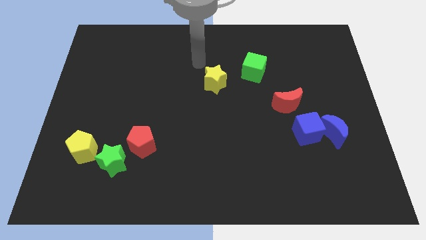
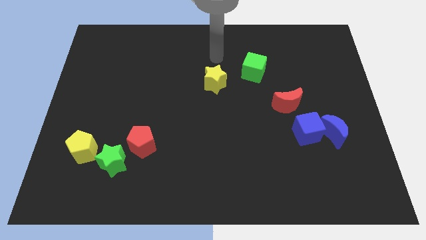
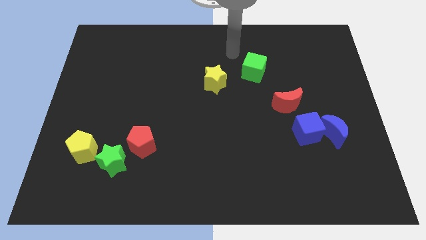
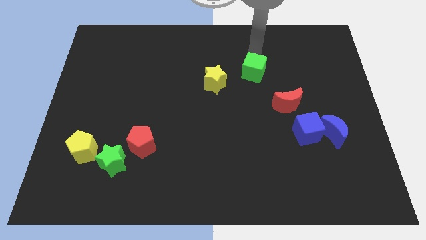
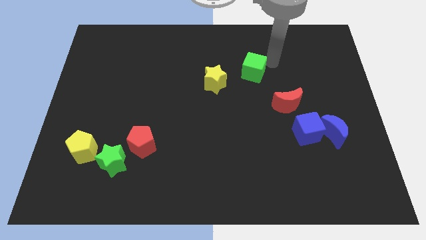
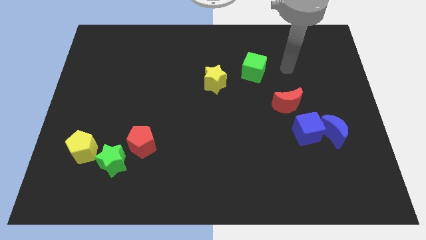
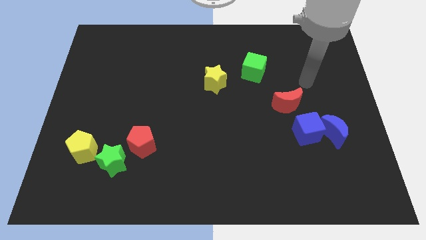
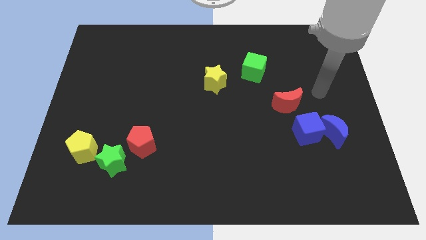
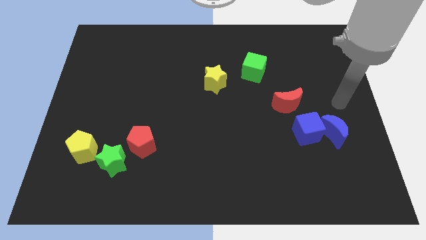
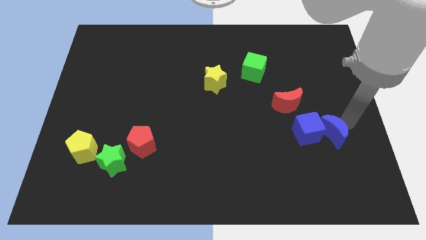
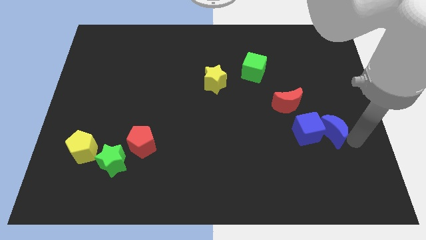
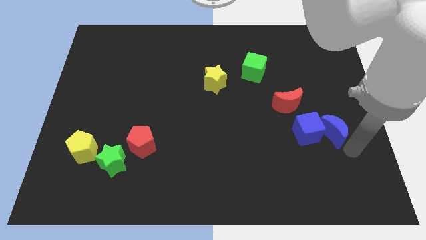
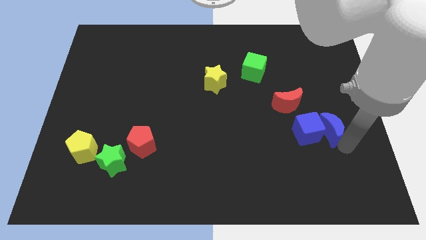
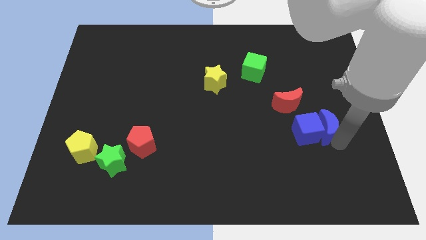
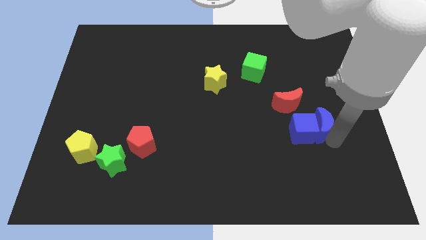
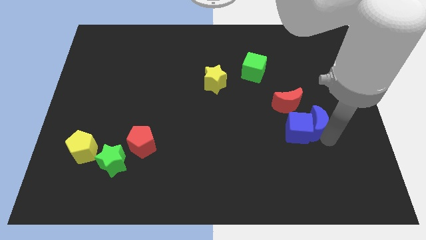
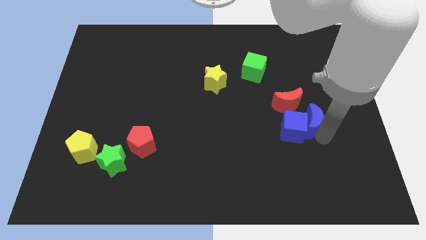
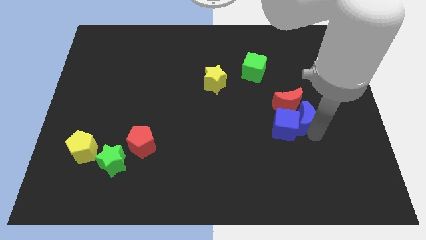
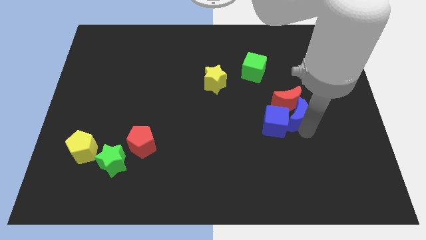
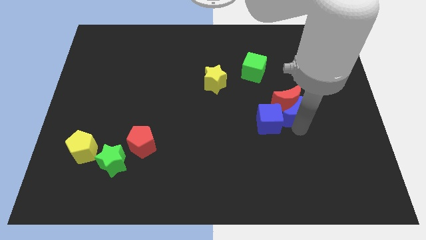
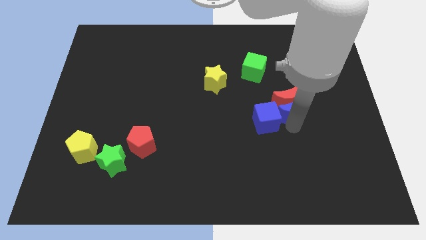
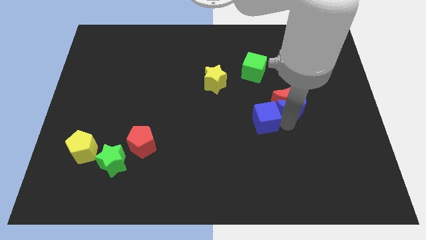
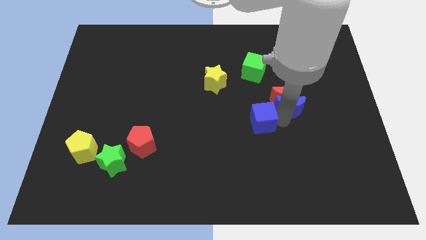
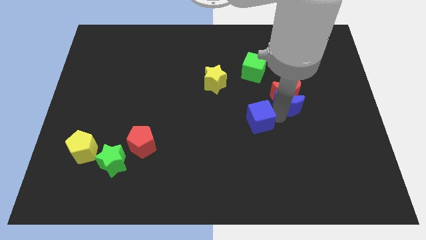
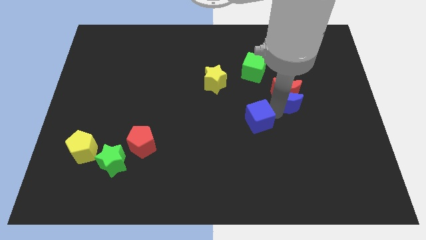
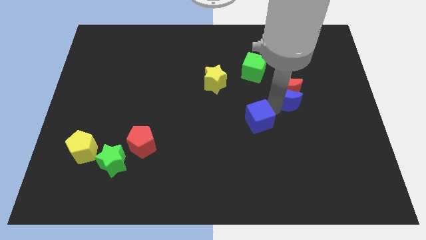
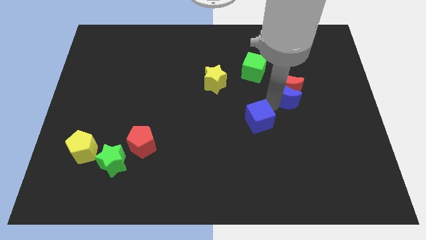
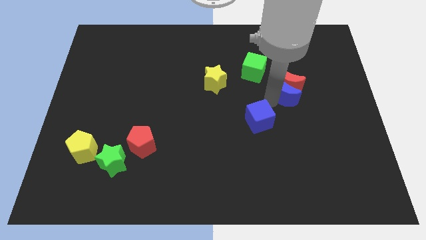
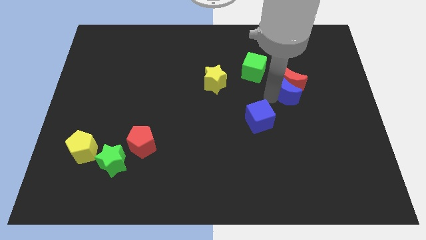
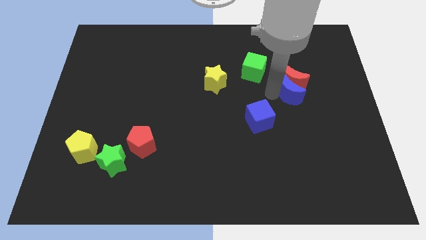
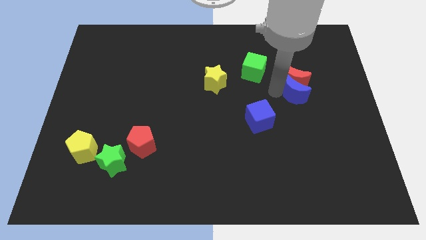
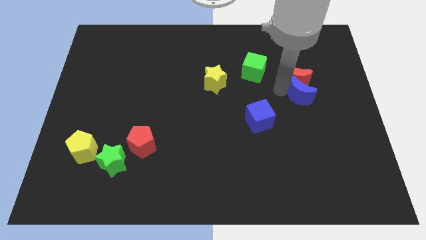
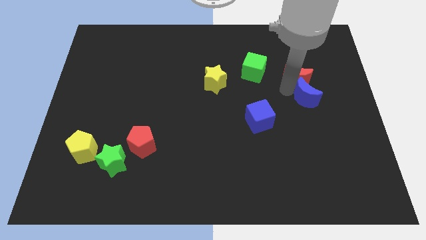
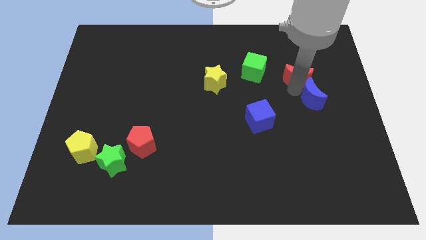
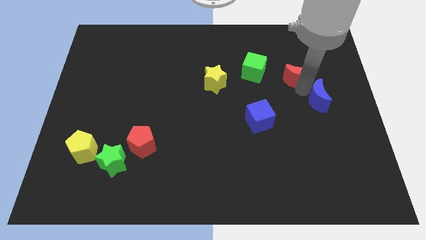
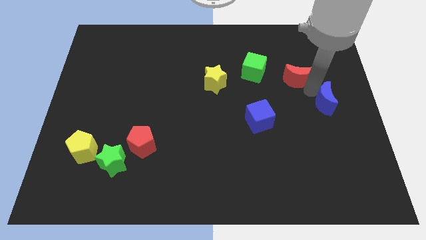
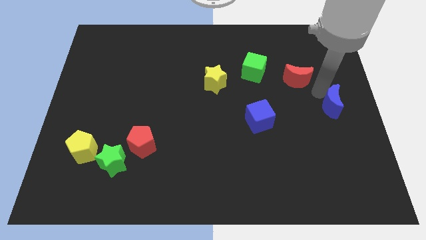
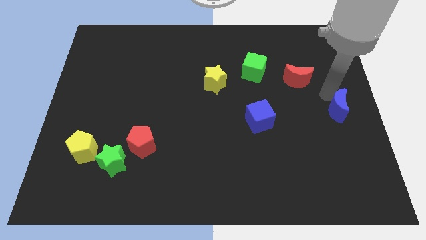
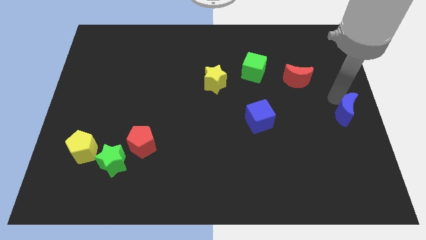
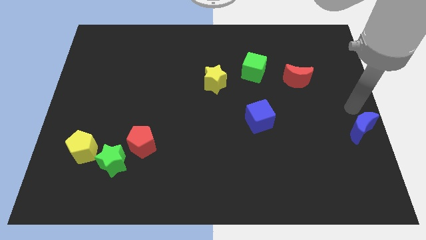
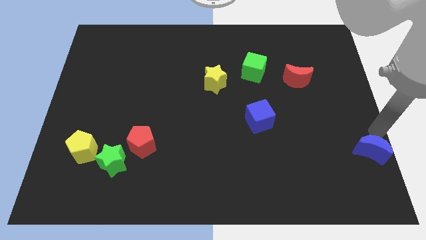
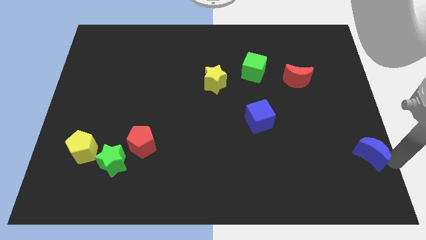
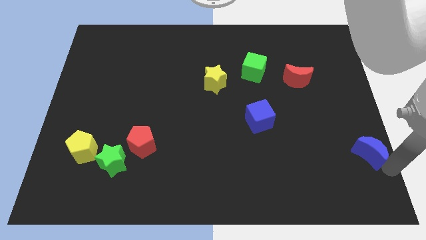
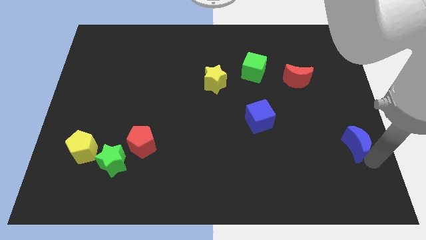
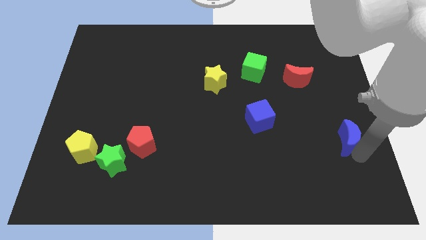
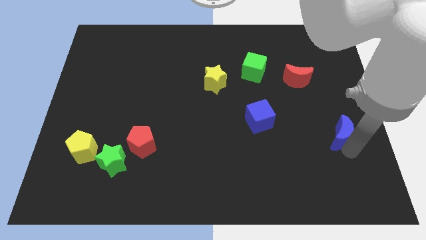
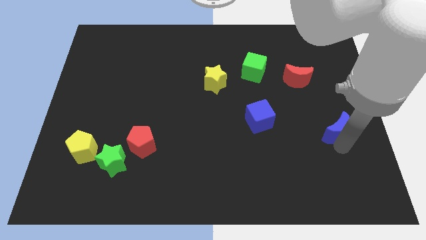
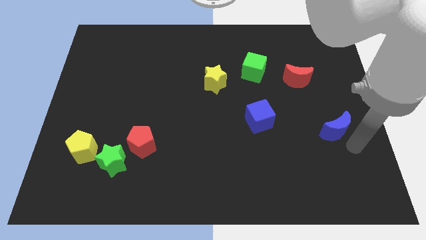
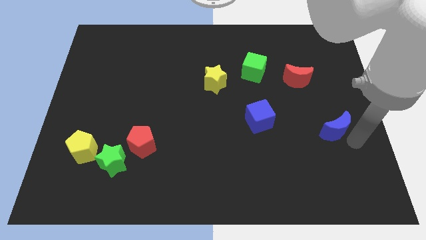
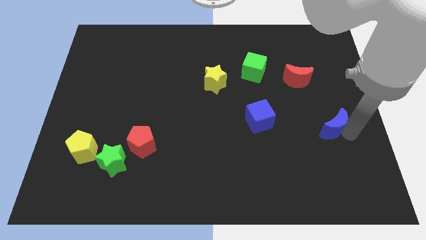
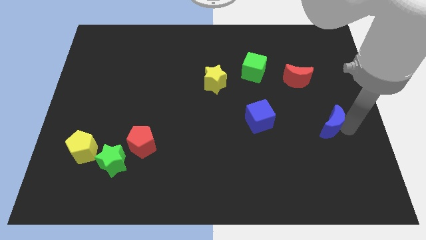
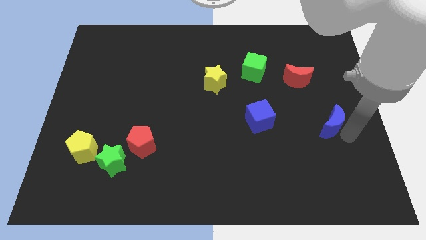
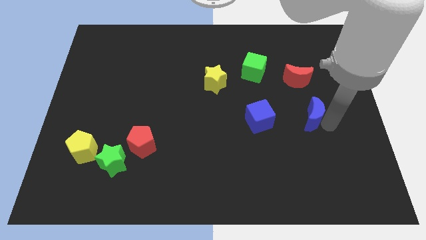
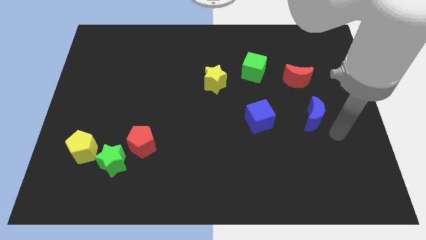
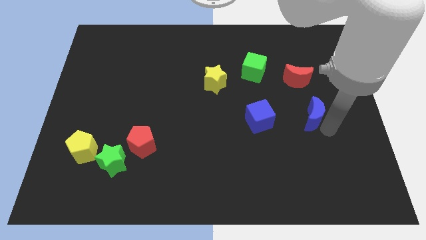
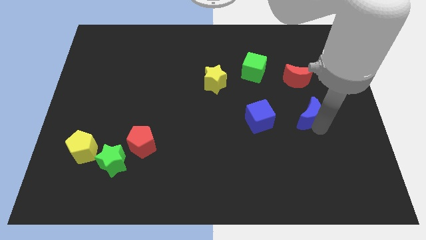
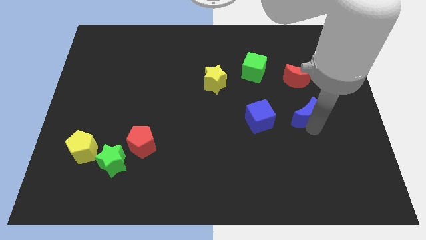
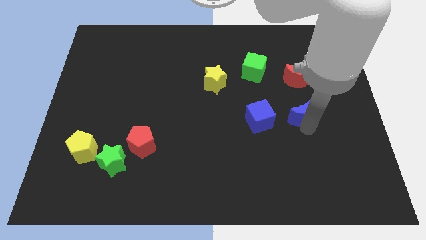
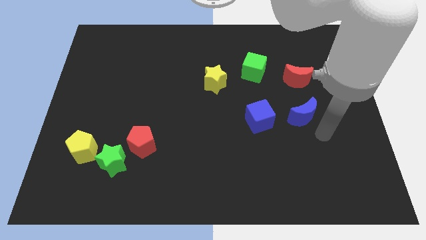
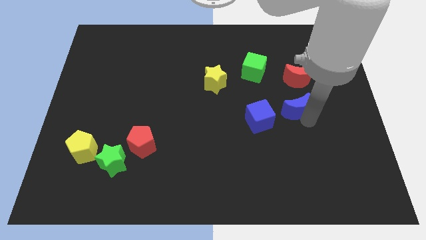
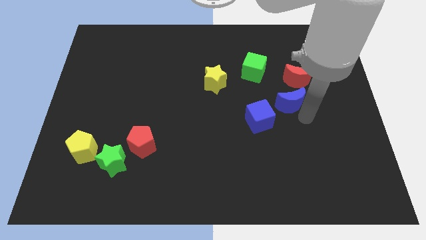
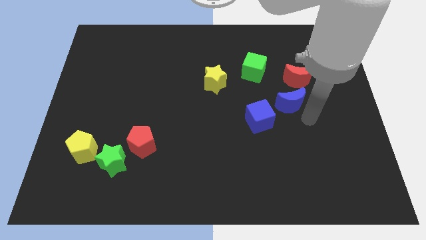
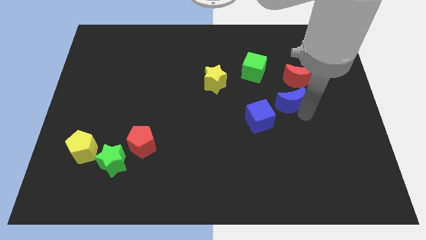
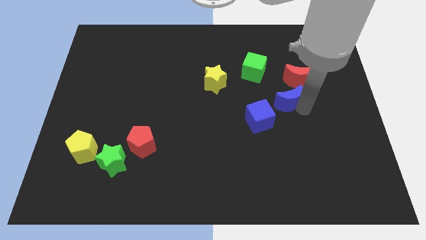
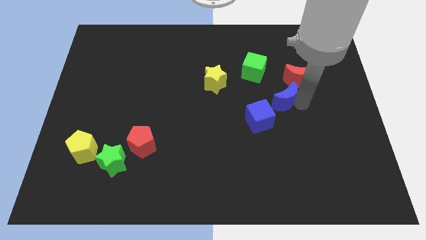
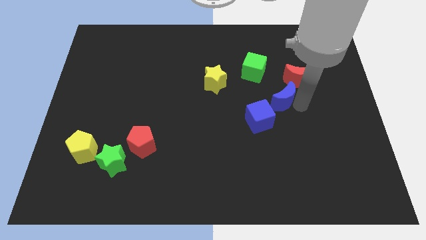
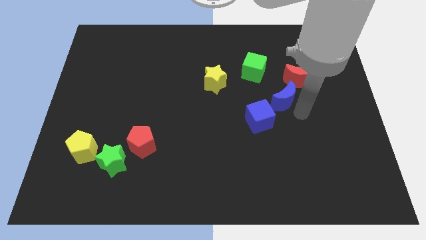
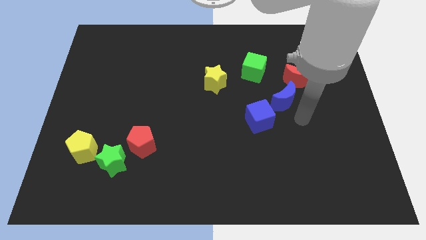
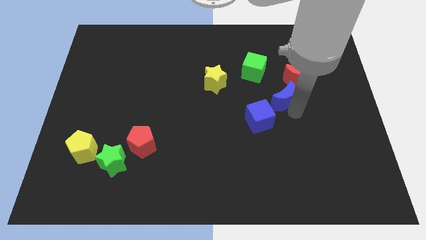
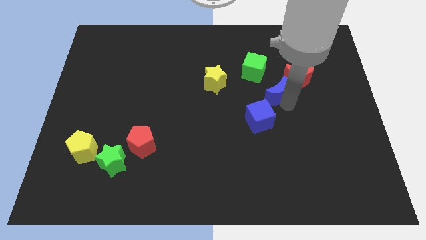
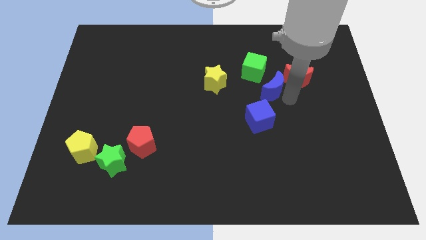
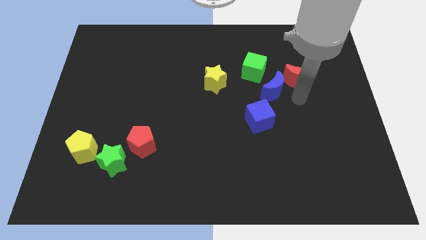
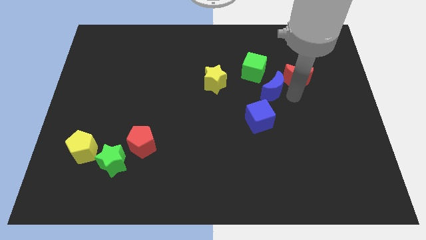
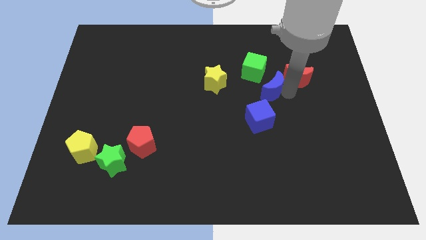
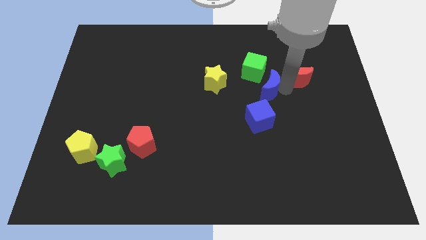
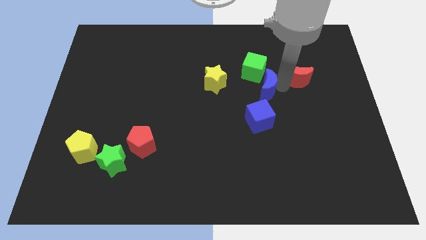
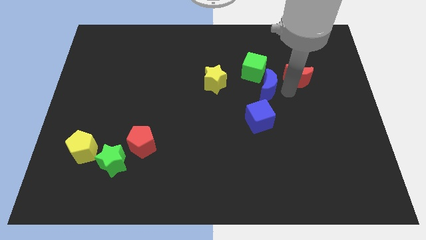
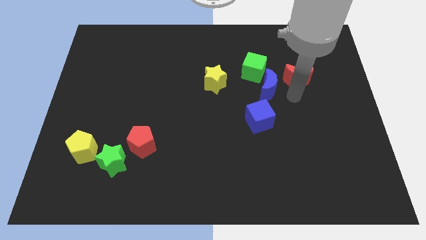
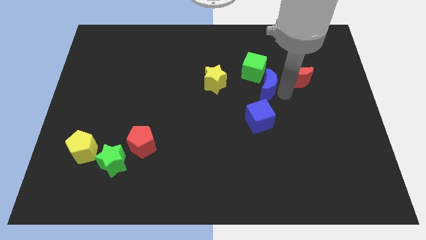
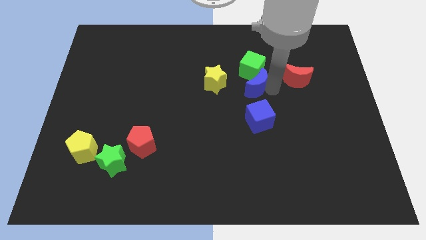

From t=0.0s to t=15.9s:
move the blue moon diagonally down and to the left of the green cube

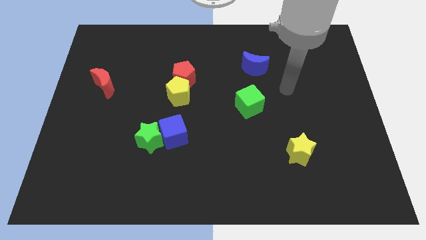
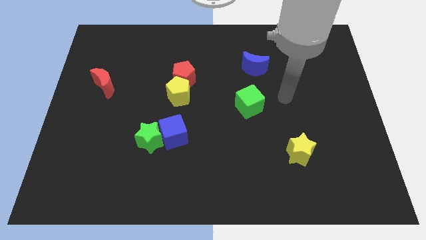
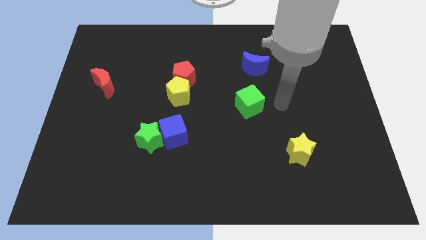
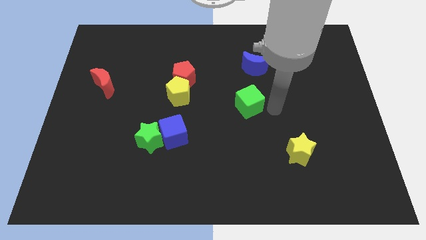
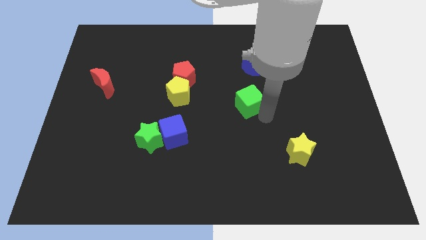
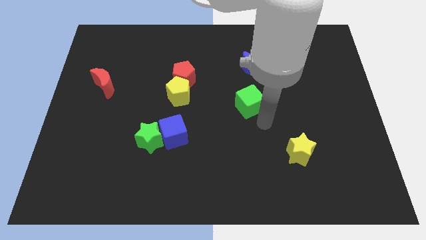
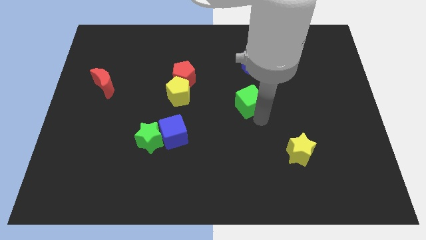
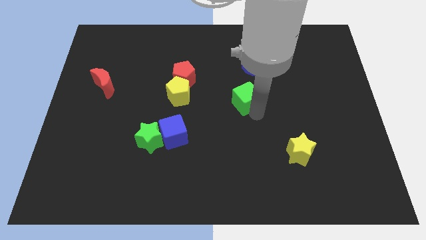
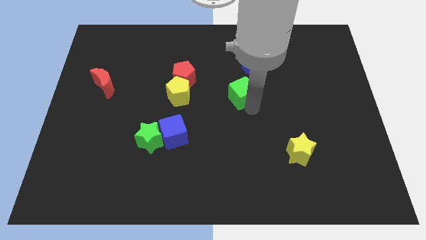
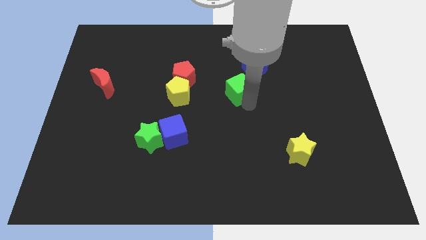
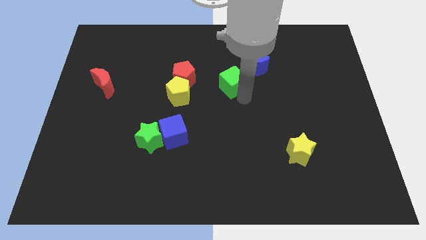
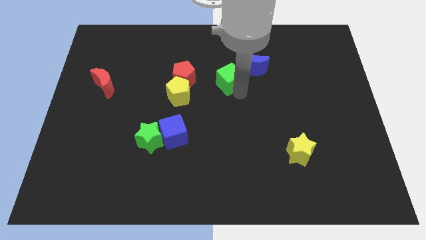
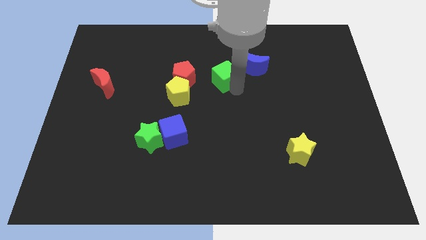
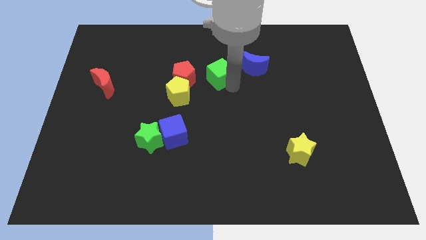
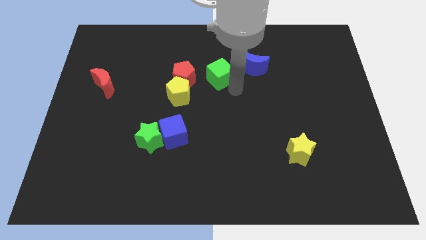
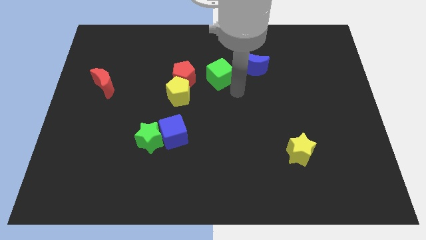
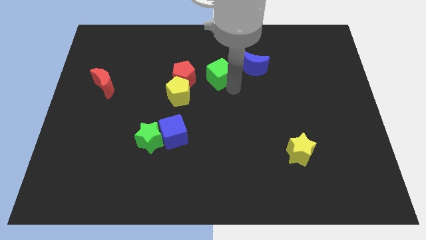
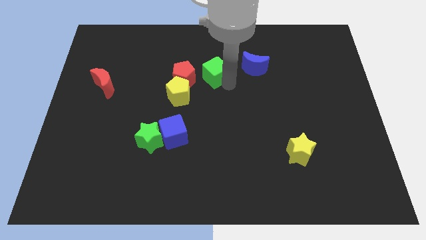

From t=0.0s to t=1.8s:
slide the green cube diagonally up and to the right of the red pentagon
